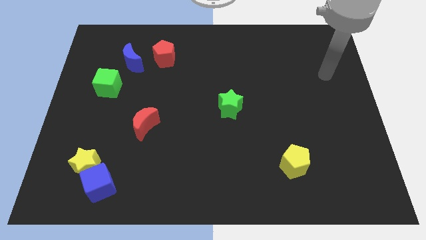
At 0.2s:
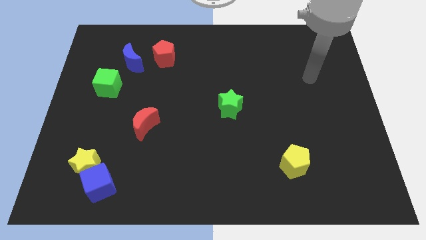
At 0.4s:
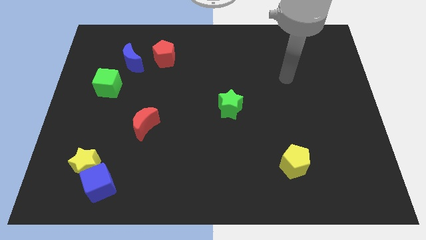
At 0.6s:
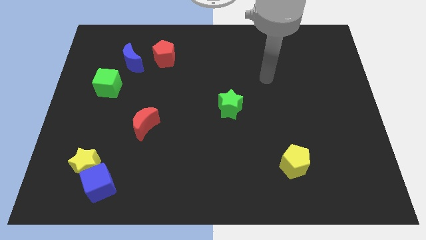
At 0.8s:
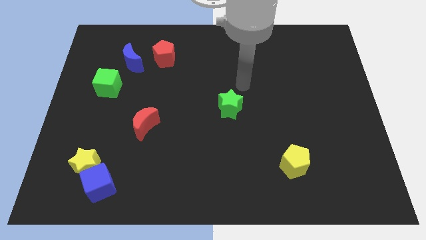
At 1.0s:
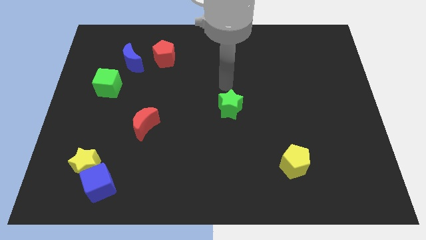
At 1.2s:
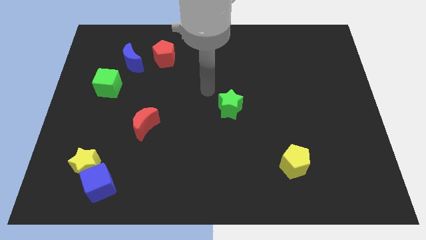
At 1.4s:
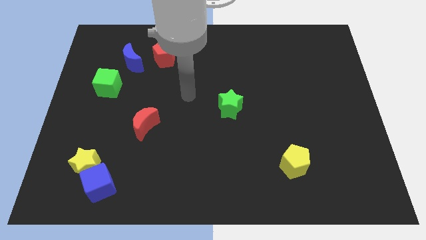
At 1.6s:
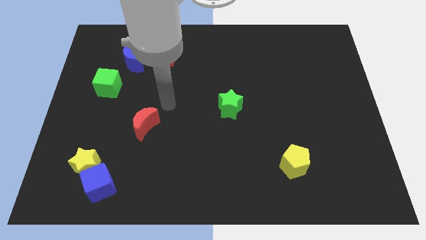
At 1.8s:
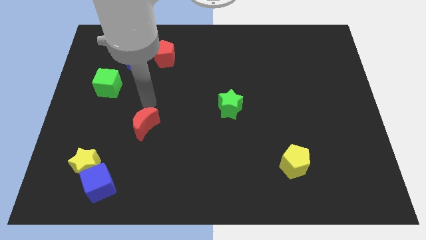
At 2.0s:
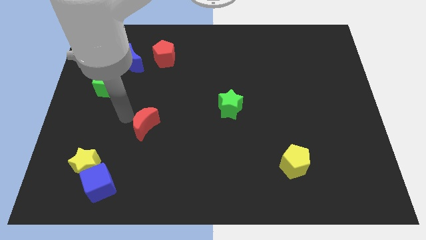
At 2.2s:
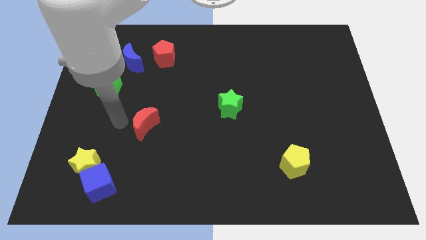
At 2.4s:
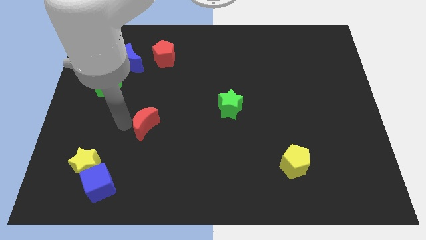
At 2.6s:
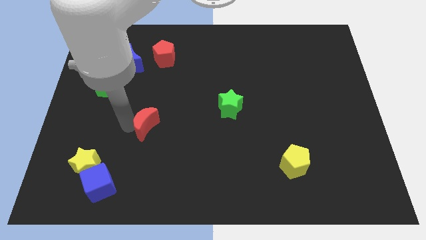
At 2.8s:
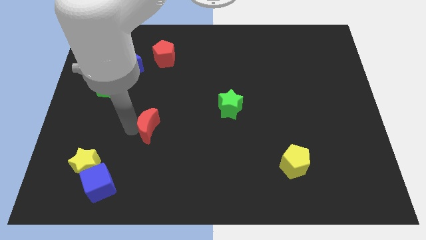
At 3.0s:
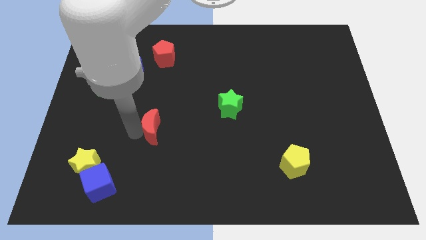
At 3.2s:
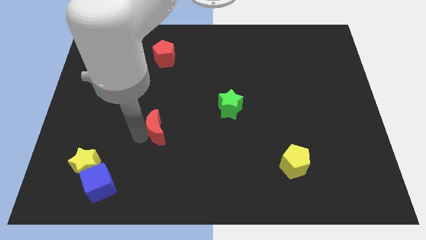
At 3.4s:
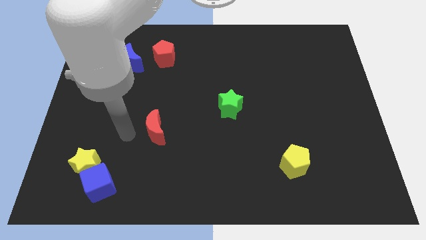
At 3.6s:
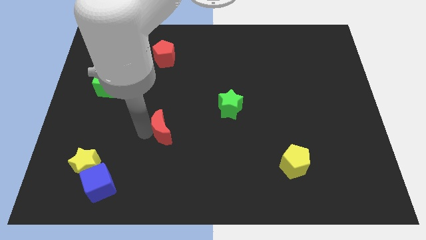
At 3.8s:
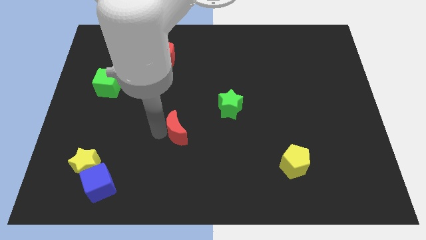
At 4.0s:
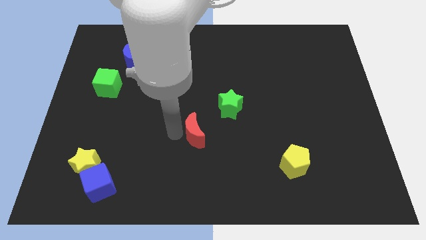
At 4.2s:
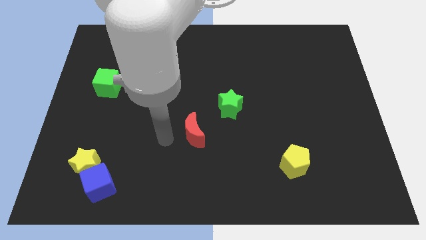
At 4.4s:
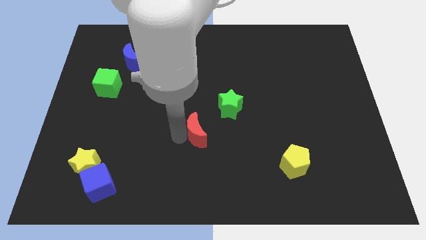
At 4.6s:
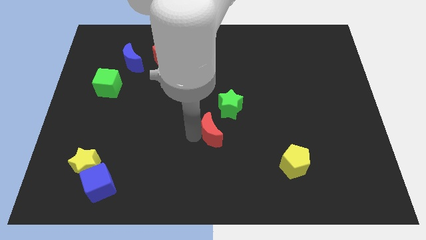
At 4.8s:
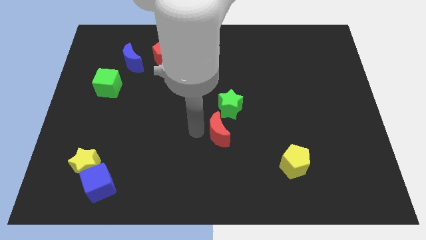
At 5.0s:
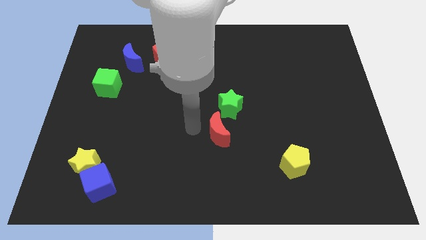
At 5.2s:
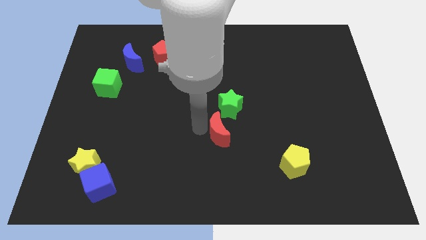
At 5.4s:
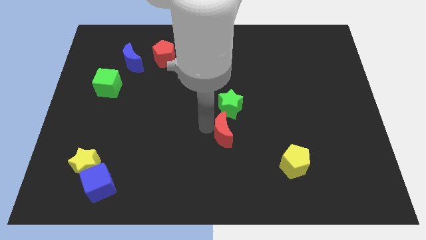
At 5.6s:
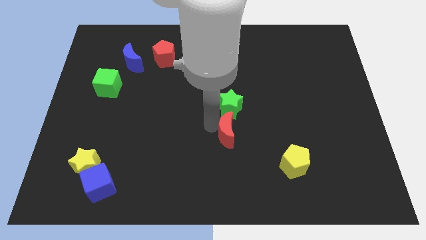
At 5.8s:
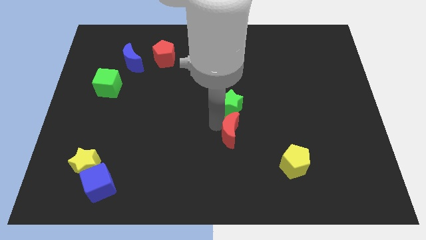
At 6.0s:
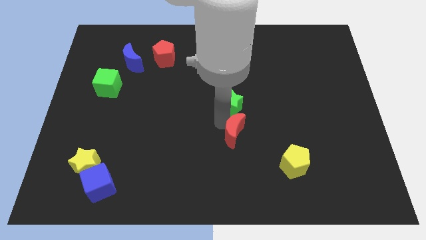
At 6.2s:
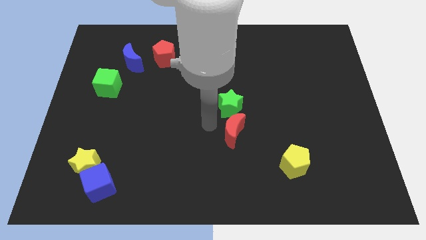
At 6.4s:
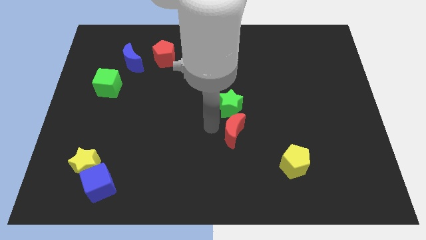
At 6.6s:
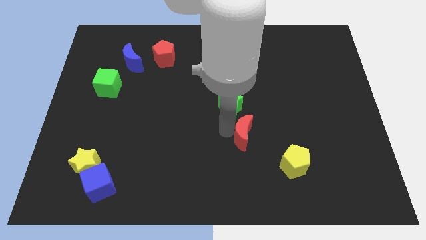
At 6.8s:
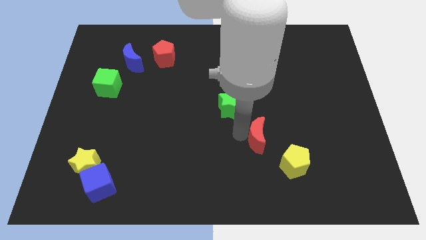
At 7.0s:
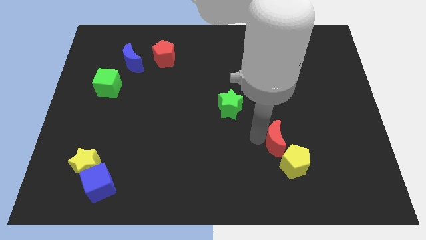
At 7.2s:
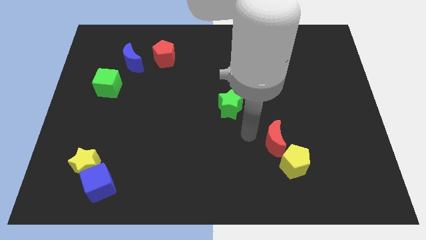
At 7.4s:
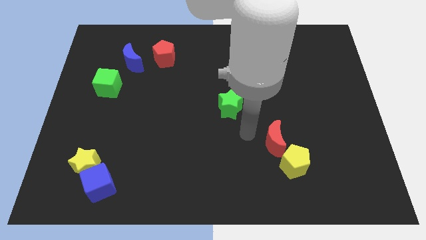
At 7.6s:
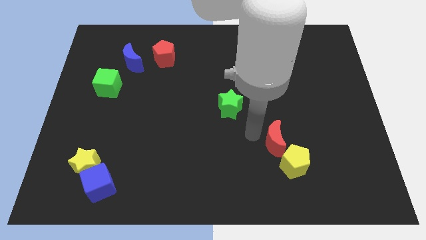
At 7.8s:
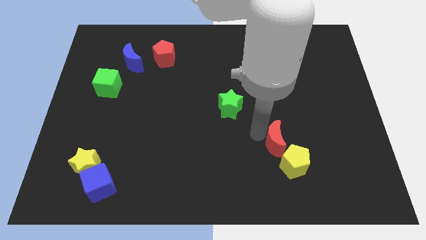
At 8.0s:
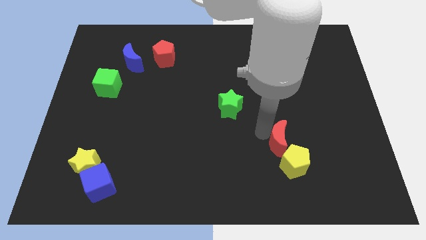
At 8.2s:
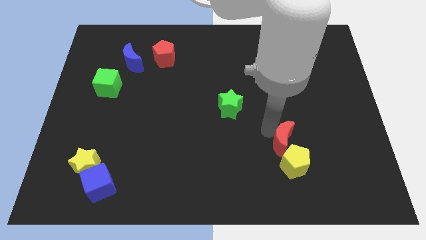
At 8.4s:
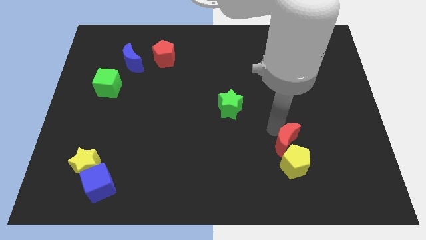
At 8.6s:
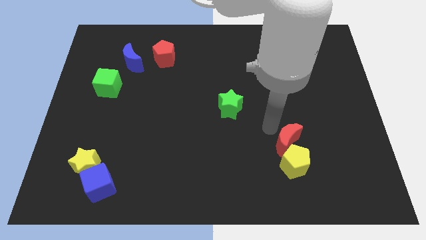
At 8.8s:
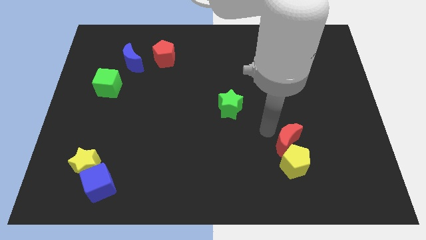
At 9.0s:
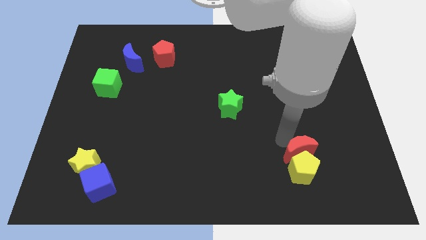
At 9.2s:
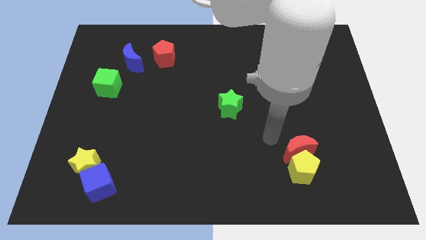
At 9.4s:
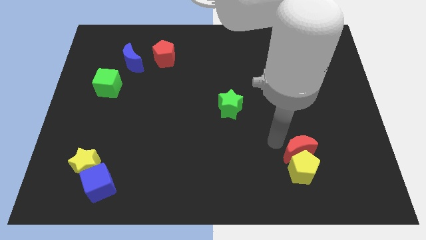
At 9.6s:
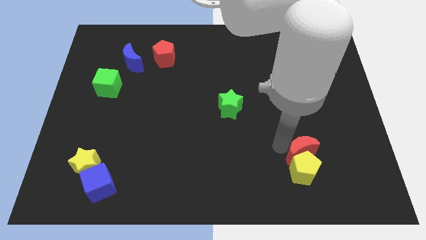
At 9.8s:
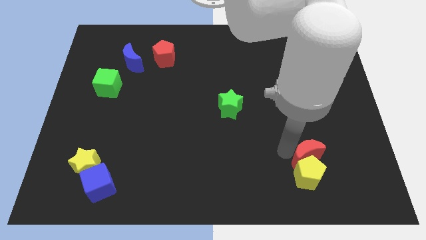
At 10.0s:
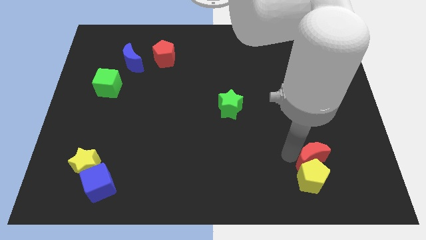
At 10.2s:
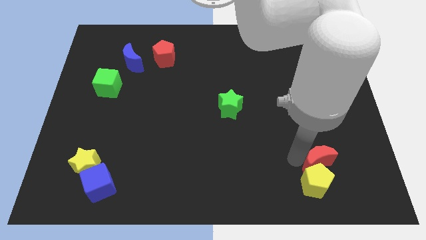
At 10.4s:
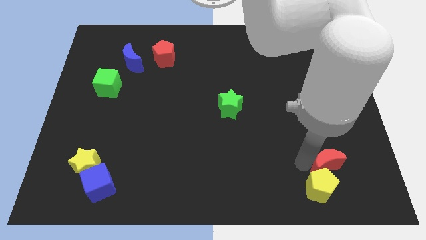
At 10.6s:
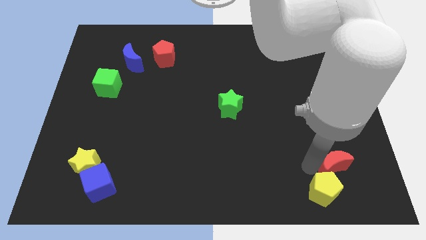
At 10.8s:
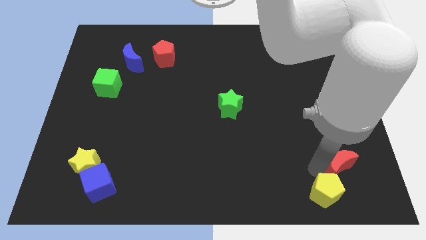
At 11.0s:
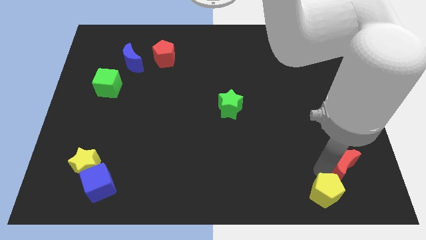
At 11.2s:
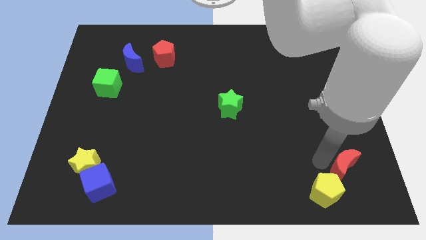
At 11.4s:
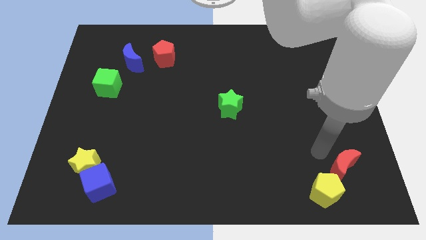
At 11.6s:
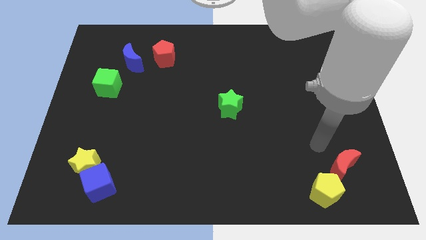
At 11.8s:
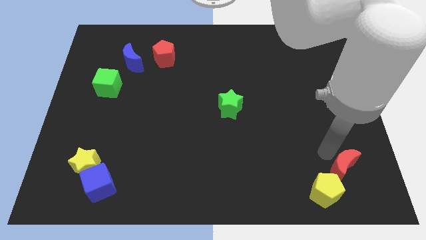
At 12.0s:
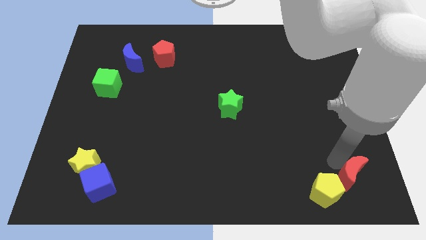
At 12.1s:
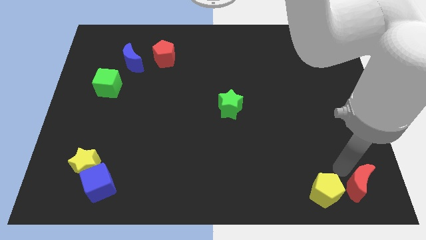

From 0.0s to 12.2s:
put the red moon to the bottom right of the board
